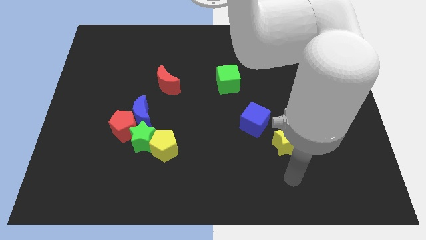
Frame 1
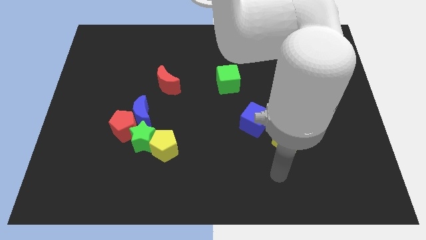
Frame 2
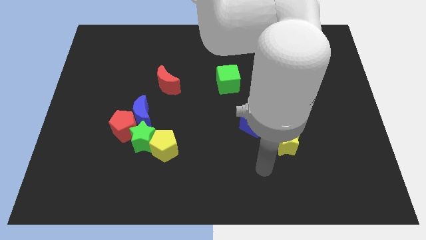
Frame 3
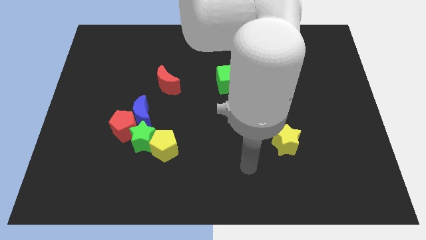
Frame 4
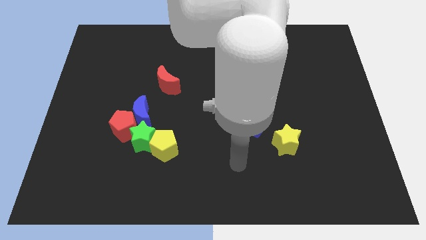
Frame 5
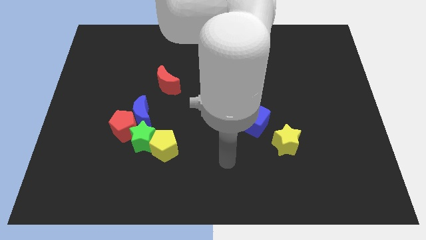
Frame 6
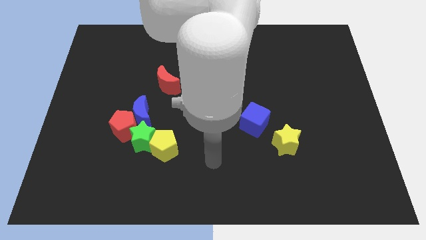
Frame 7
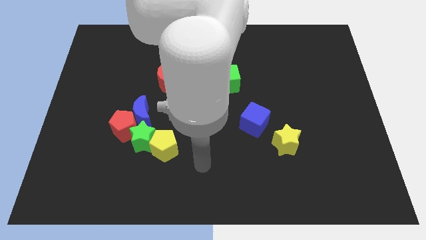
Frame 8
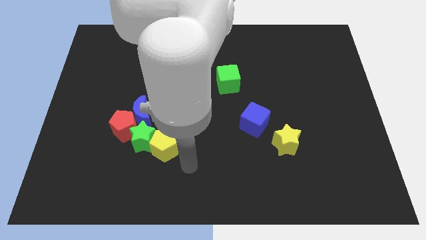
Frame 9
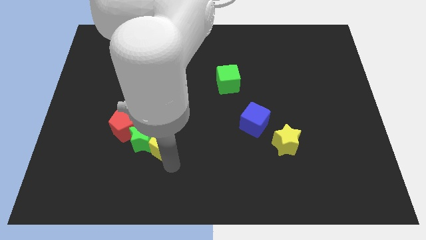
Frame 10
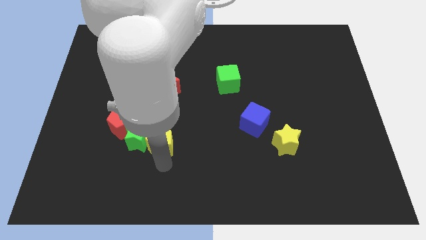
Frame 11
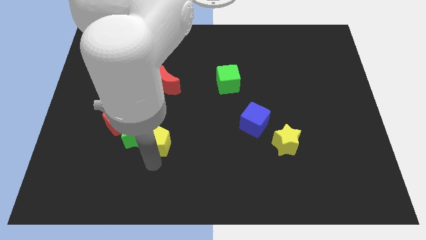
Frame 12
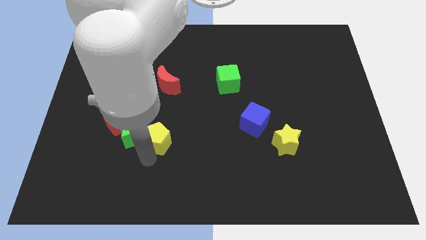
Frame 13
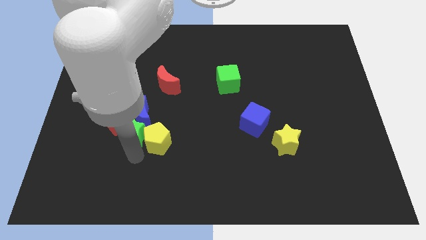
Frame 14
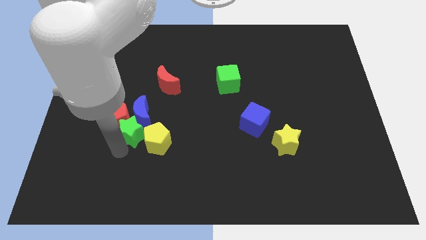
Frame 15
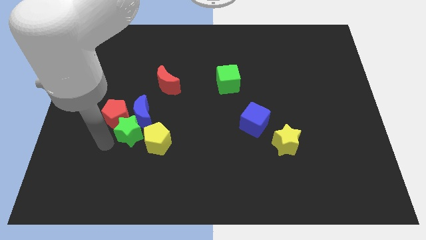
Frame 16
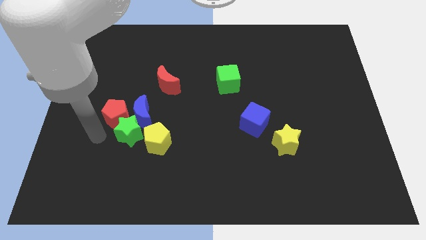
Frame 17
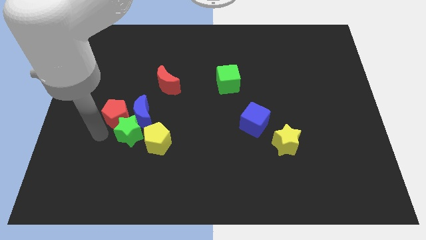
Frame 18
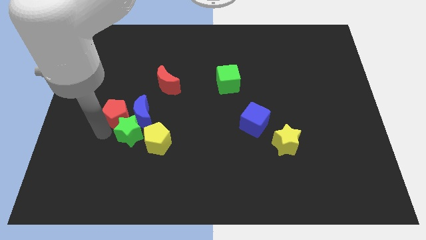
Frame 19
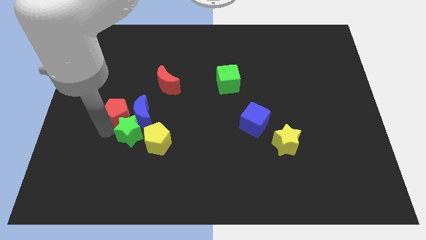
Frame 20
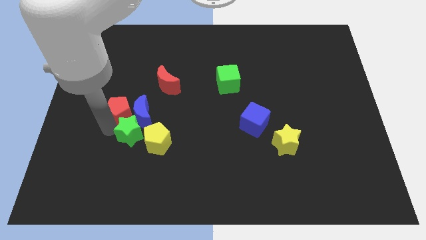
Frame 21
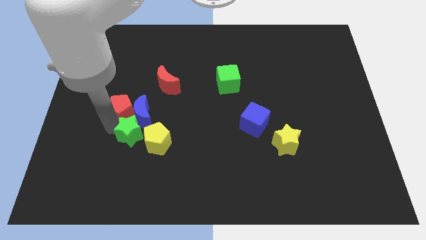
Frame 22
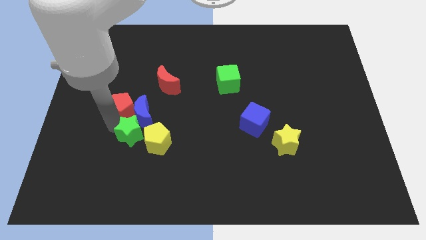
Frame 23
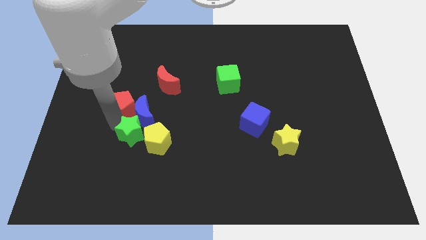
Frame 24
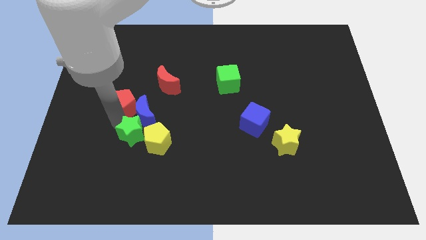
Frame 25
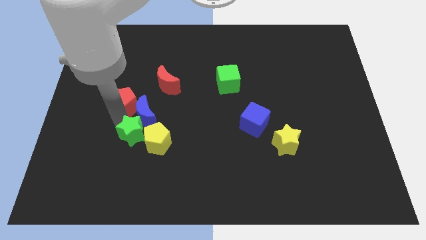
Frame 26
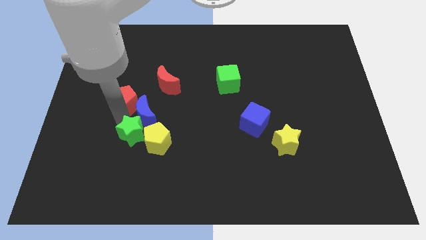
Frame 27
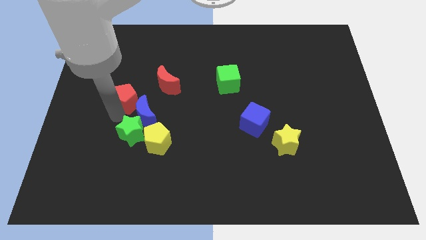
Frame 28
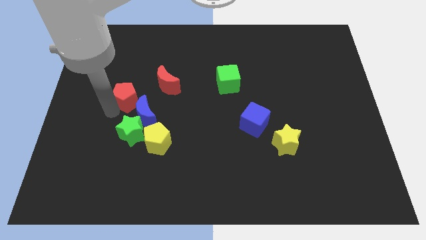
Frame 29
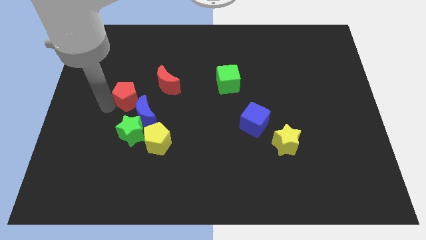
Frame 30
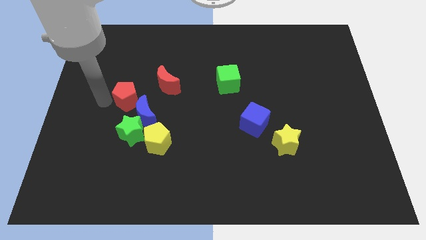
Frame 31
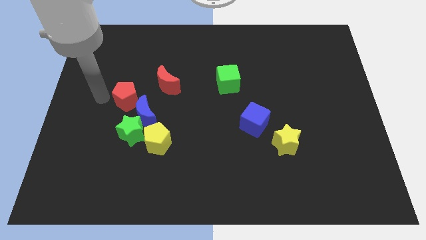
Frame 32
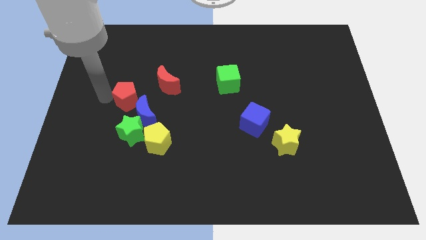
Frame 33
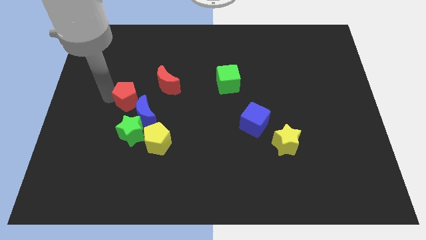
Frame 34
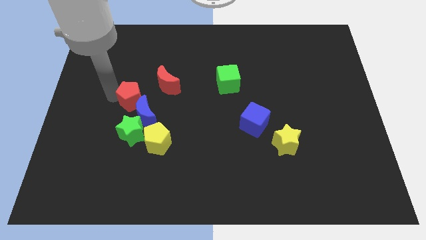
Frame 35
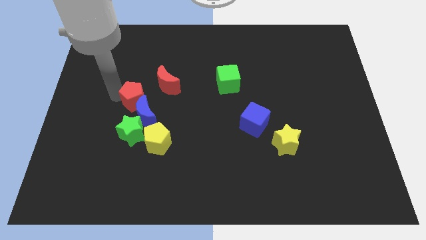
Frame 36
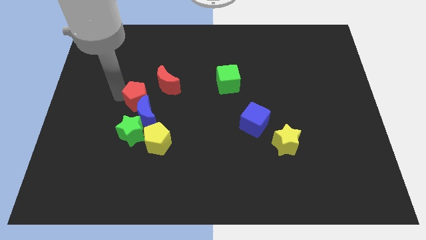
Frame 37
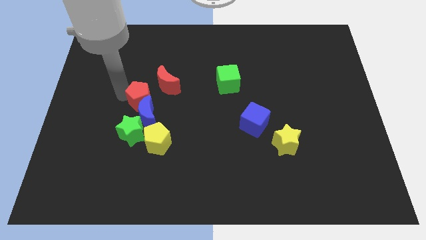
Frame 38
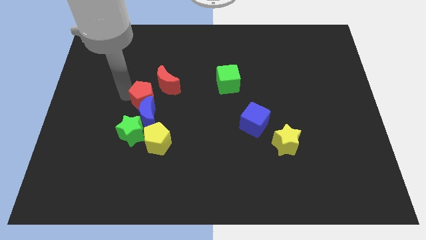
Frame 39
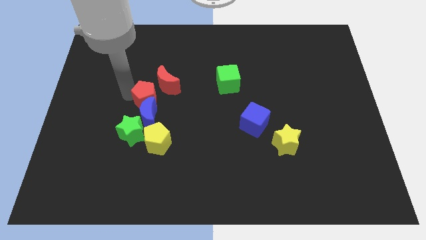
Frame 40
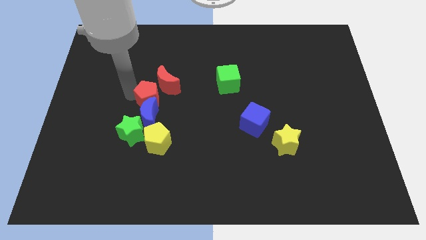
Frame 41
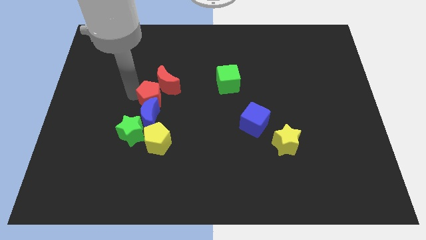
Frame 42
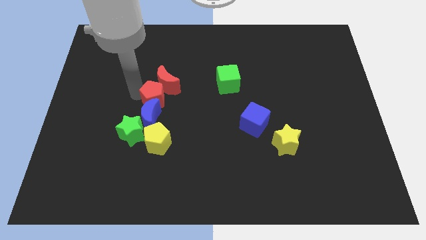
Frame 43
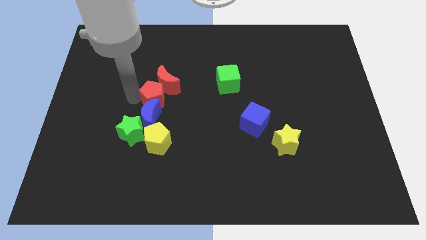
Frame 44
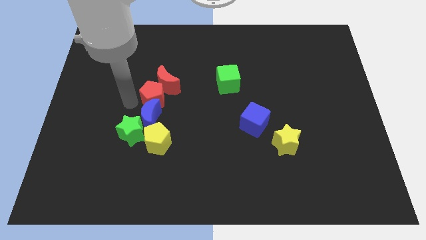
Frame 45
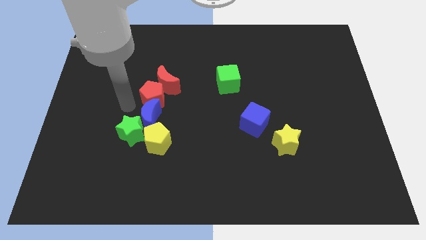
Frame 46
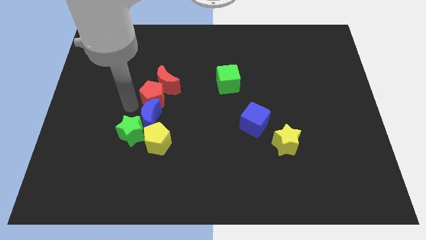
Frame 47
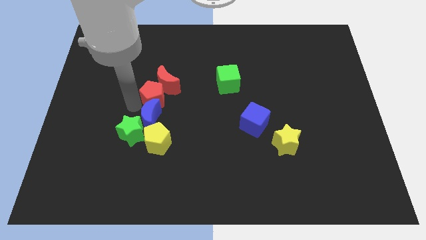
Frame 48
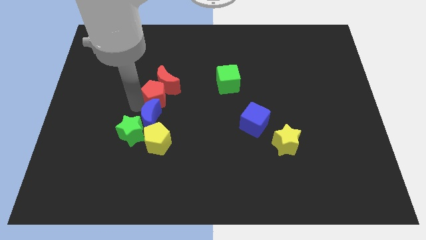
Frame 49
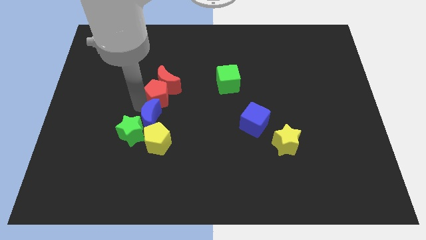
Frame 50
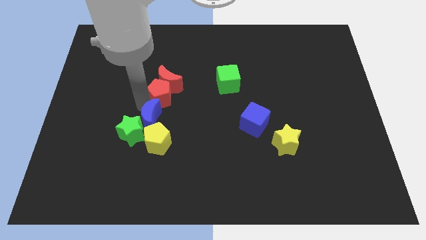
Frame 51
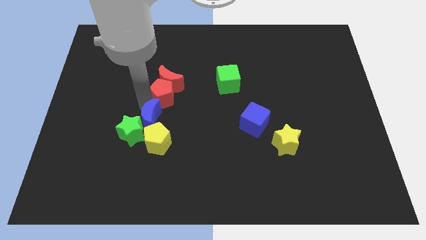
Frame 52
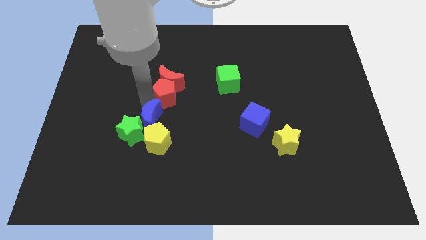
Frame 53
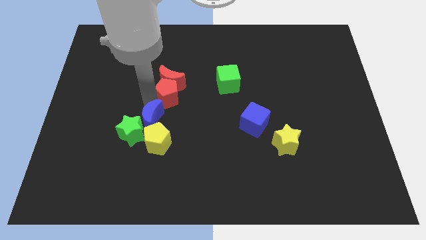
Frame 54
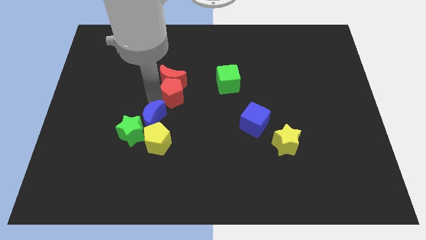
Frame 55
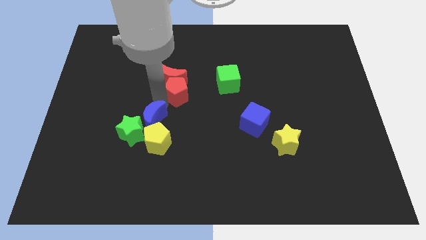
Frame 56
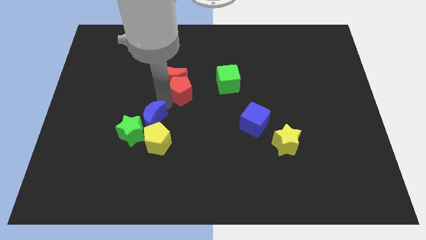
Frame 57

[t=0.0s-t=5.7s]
put the red pentagon to the right side of the red moon
